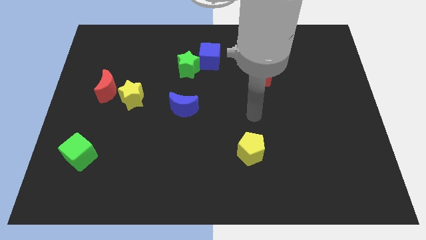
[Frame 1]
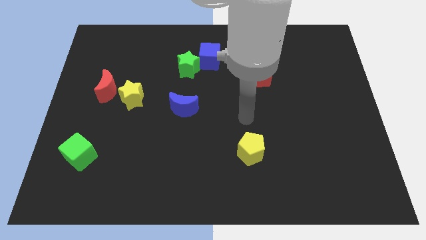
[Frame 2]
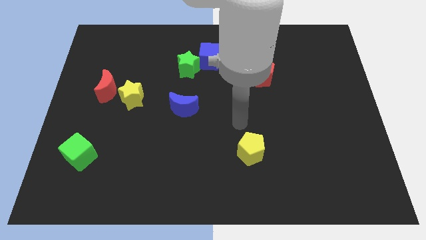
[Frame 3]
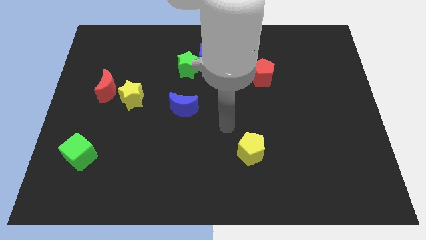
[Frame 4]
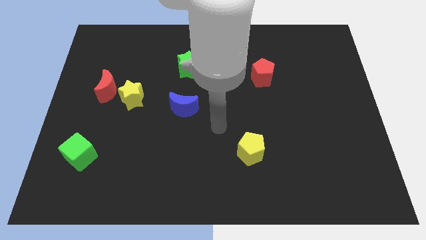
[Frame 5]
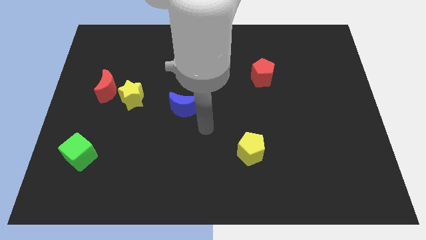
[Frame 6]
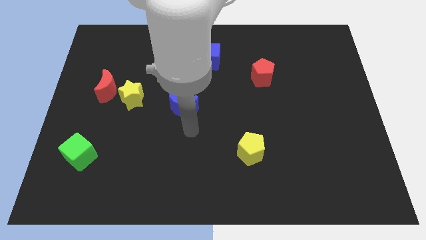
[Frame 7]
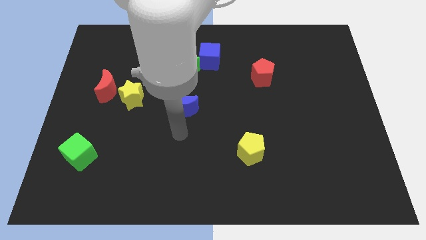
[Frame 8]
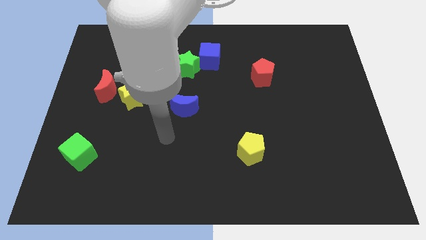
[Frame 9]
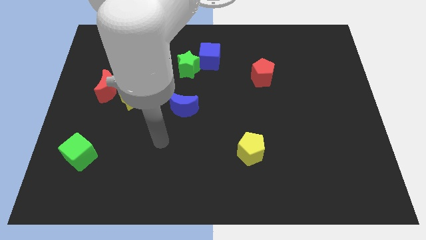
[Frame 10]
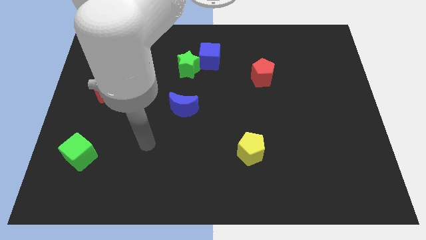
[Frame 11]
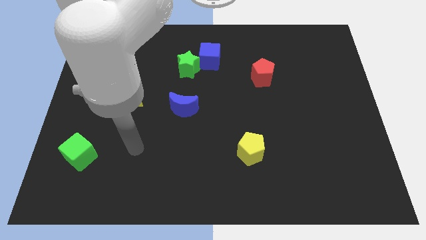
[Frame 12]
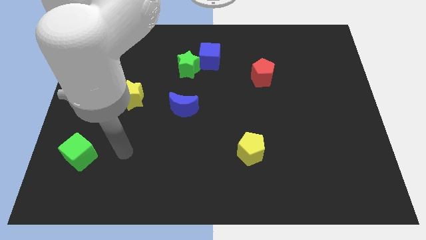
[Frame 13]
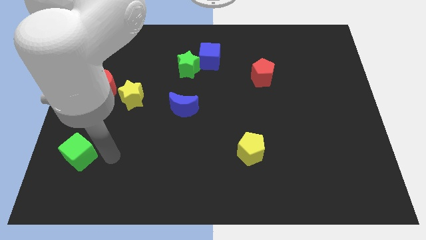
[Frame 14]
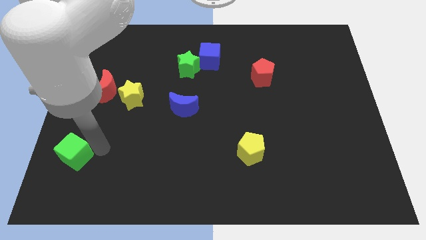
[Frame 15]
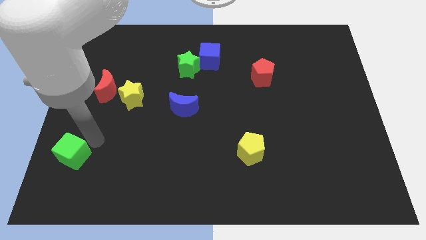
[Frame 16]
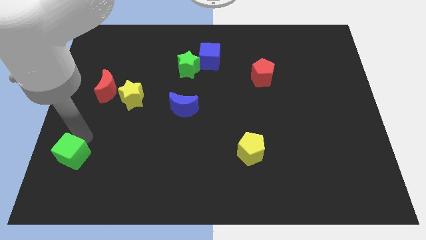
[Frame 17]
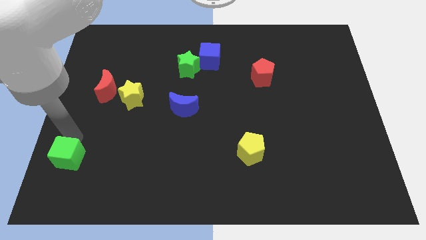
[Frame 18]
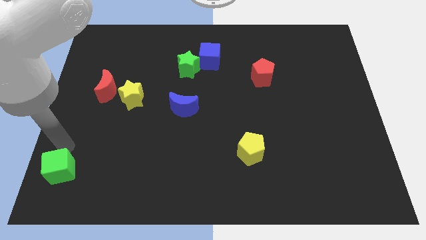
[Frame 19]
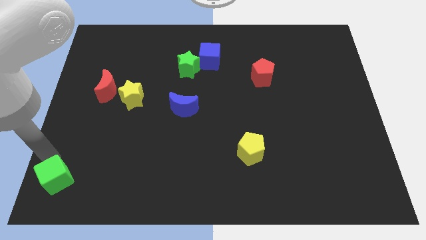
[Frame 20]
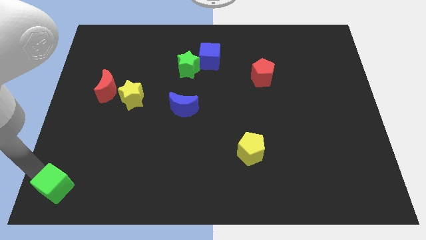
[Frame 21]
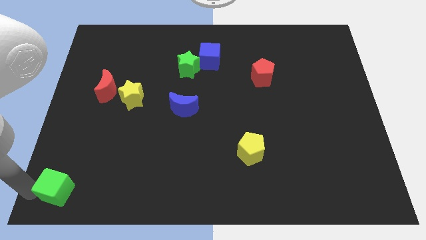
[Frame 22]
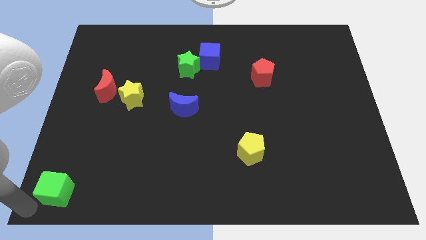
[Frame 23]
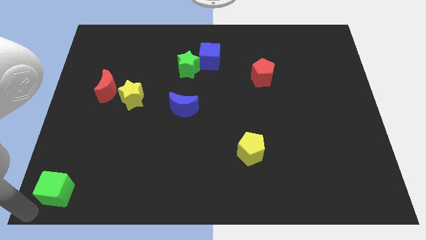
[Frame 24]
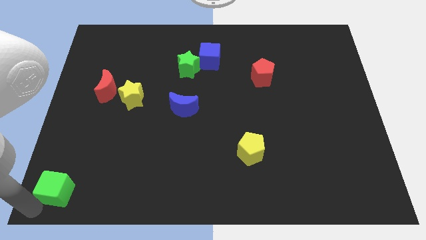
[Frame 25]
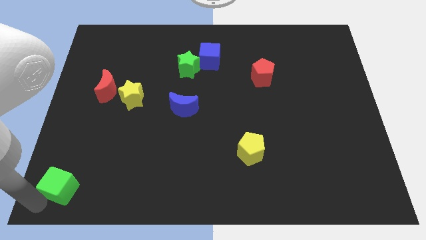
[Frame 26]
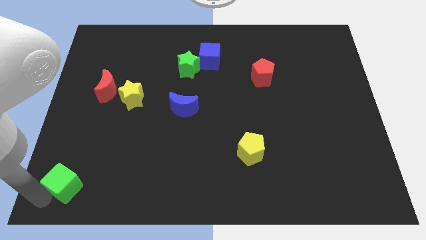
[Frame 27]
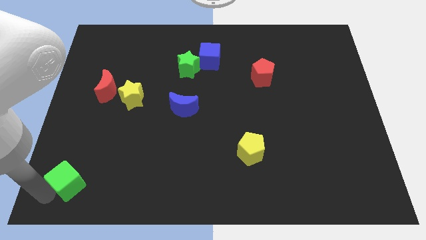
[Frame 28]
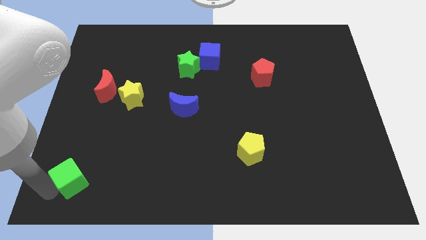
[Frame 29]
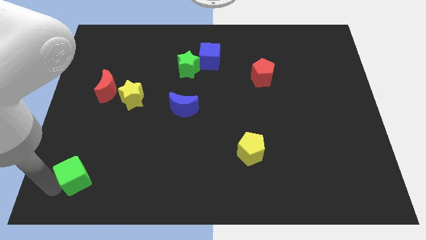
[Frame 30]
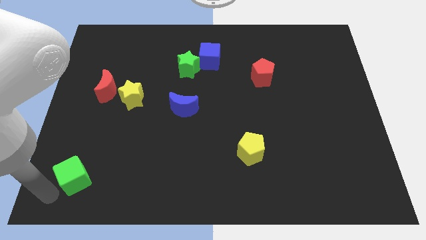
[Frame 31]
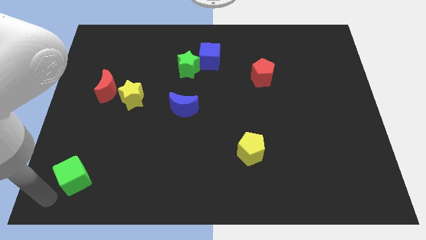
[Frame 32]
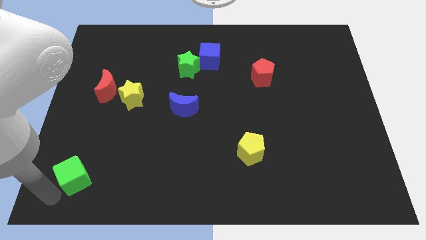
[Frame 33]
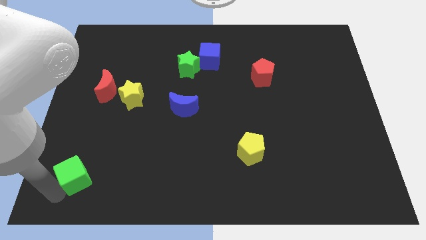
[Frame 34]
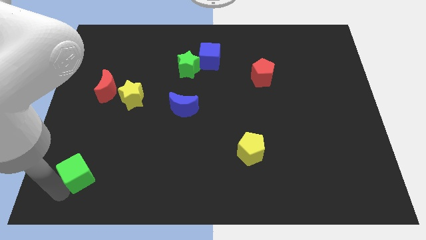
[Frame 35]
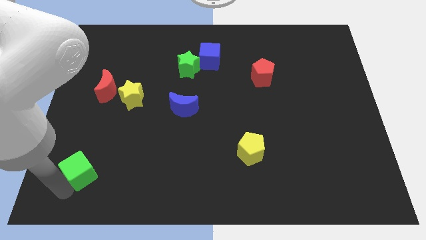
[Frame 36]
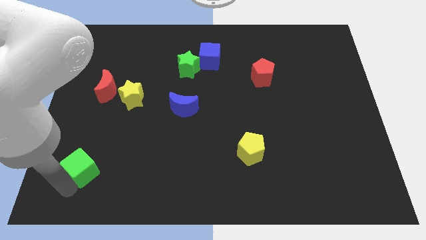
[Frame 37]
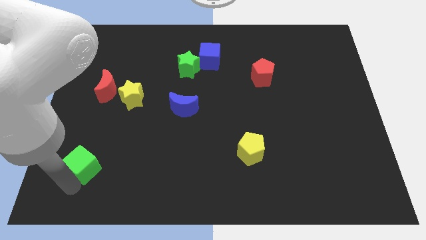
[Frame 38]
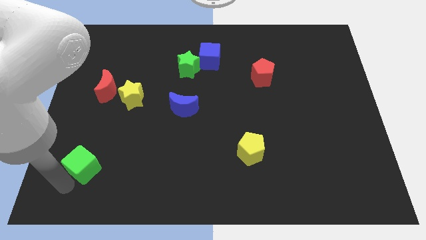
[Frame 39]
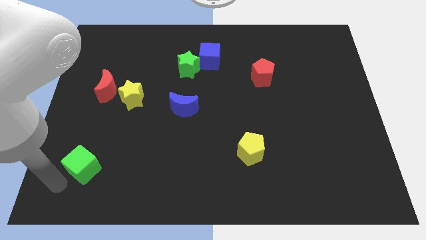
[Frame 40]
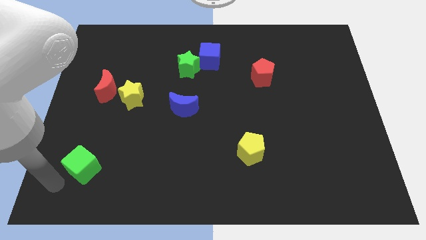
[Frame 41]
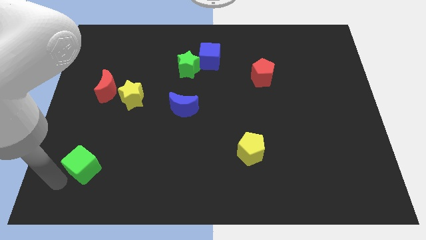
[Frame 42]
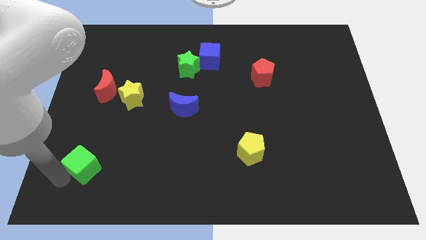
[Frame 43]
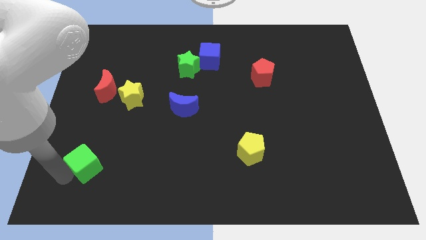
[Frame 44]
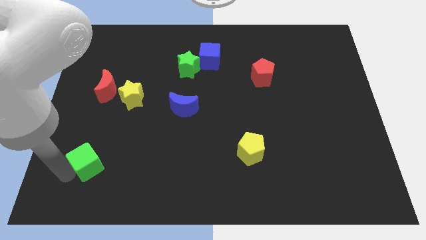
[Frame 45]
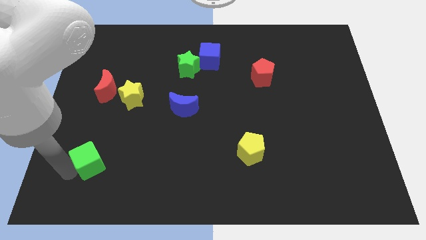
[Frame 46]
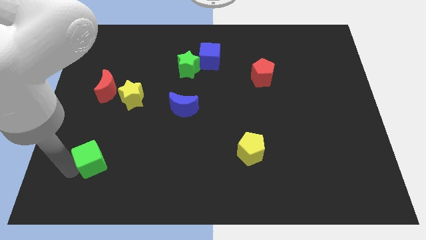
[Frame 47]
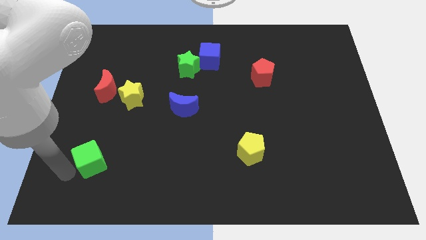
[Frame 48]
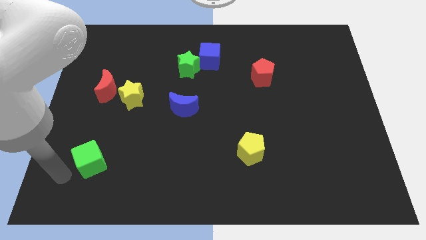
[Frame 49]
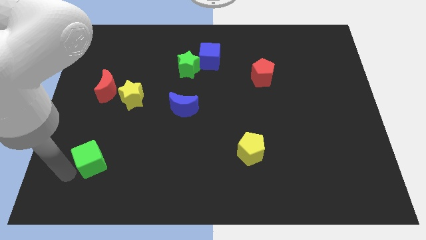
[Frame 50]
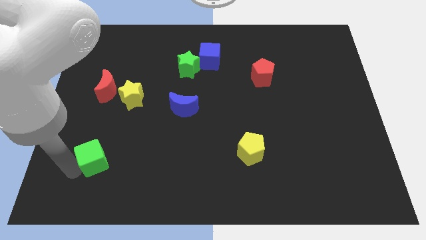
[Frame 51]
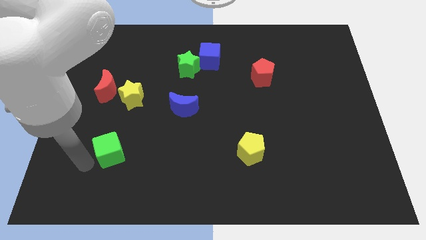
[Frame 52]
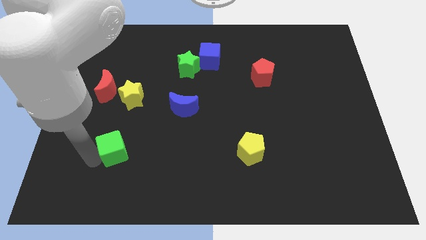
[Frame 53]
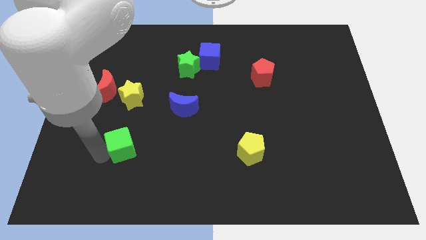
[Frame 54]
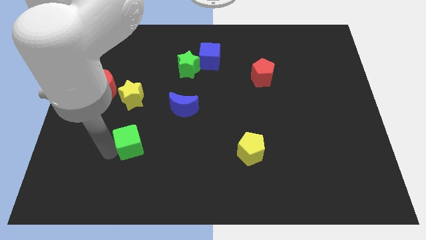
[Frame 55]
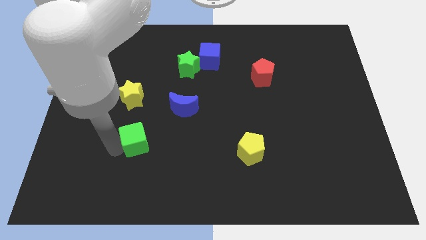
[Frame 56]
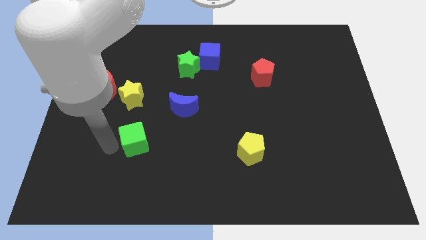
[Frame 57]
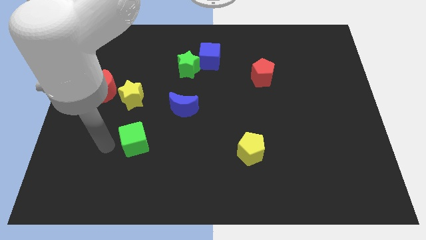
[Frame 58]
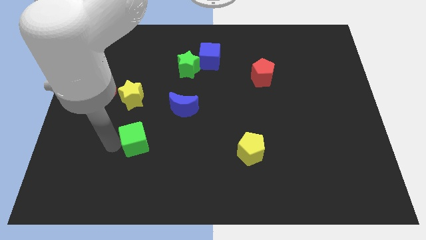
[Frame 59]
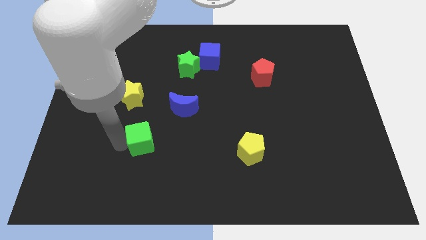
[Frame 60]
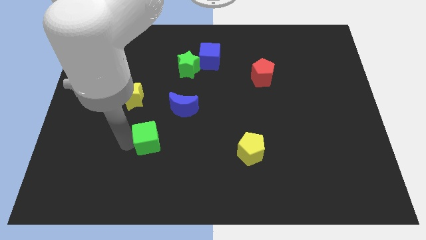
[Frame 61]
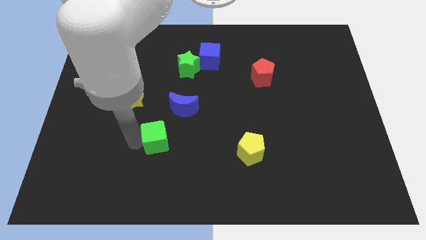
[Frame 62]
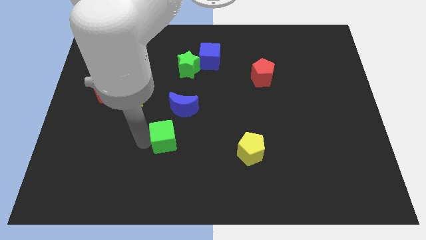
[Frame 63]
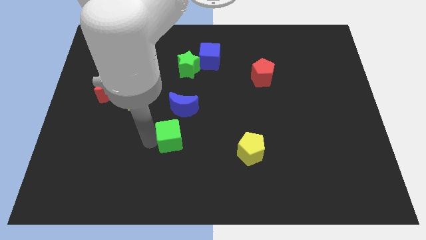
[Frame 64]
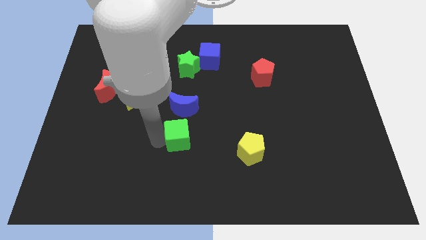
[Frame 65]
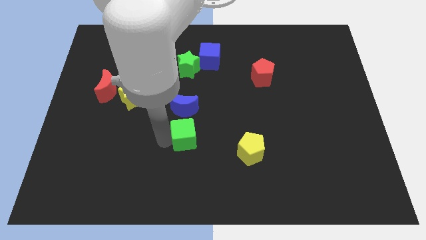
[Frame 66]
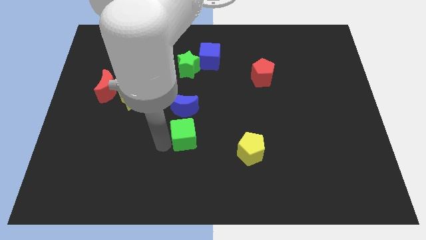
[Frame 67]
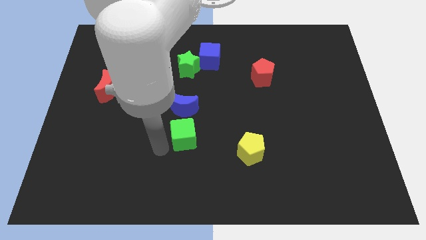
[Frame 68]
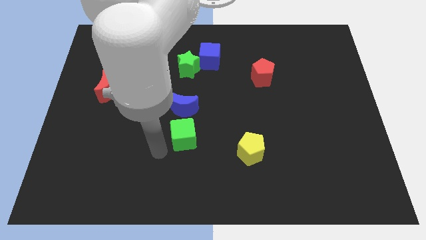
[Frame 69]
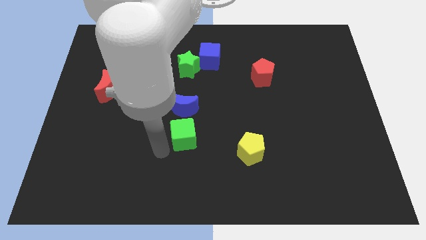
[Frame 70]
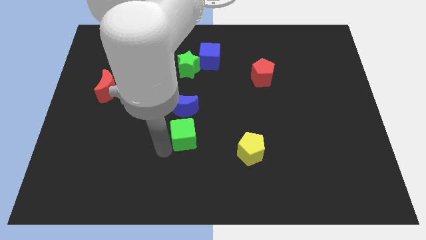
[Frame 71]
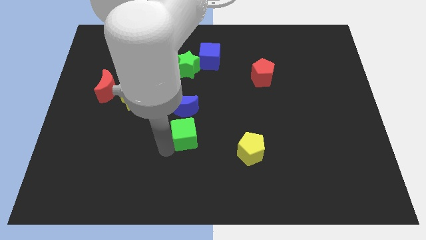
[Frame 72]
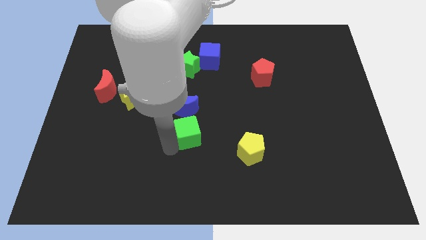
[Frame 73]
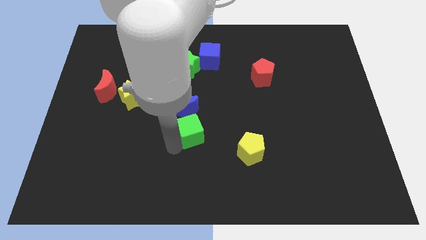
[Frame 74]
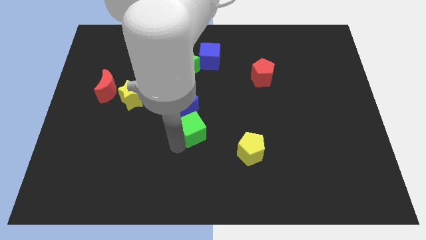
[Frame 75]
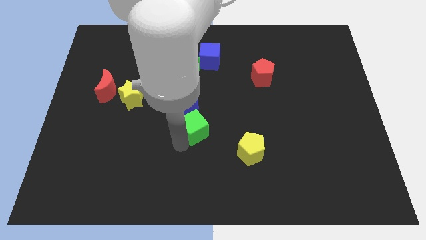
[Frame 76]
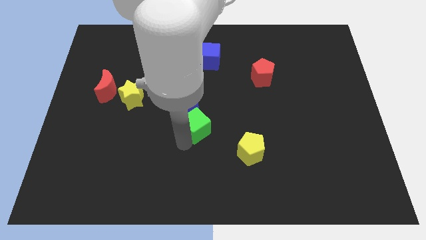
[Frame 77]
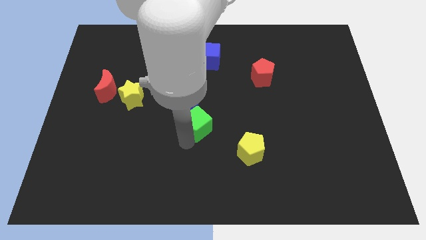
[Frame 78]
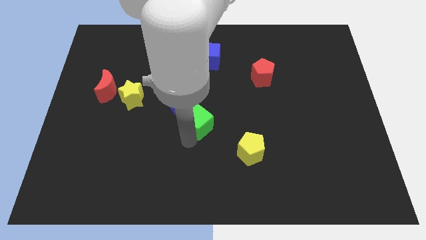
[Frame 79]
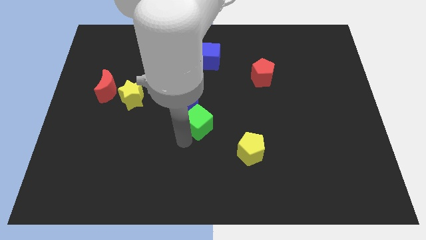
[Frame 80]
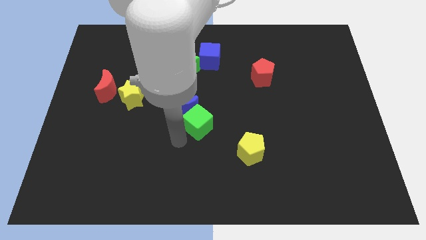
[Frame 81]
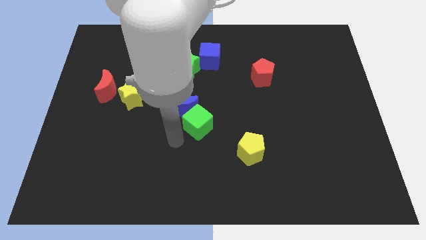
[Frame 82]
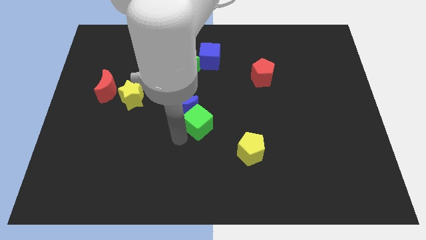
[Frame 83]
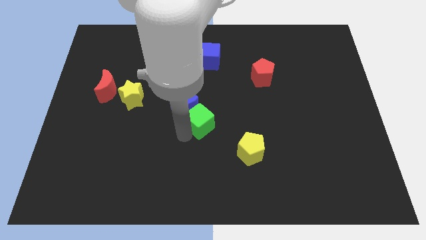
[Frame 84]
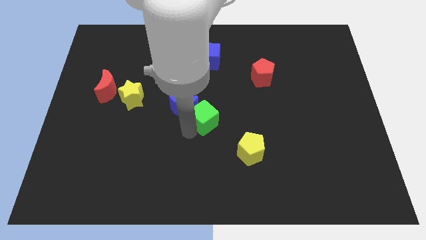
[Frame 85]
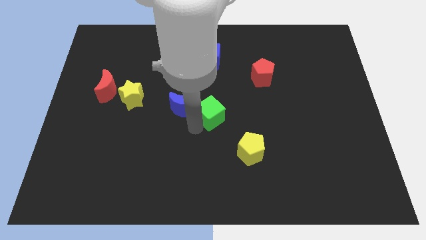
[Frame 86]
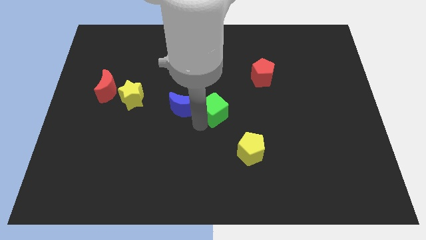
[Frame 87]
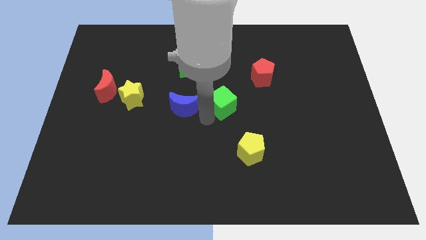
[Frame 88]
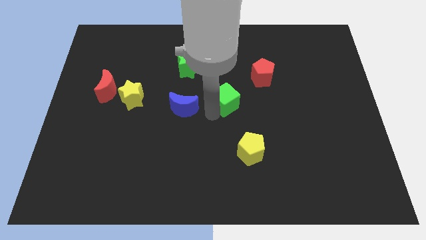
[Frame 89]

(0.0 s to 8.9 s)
push the green cube diagonally down and to the left of the red pentagon
